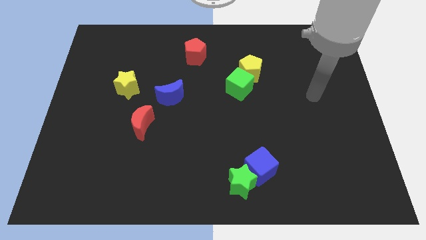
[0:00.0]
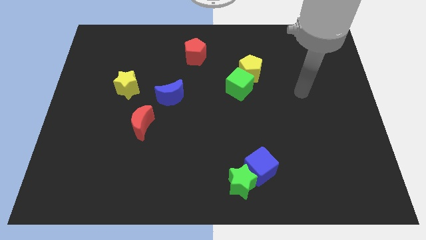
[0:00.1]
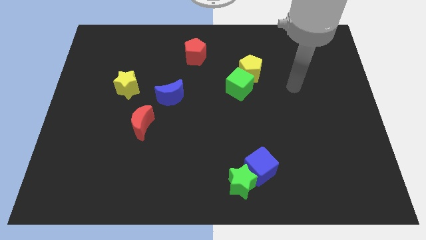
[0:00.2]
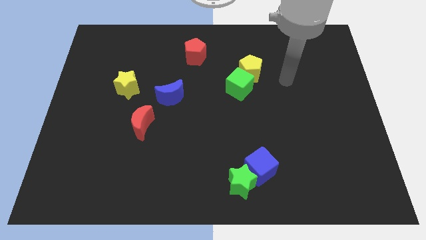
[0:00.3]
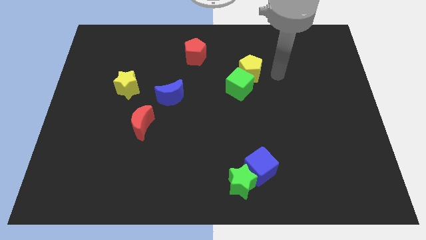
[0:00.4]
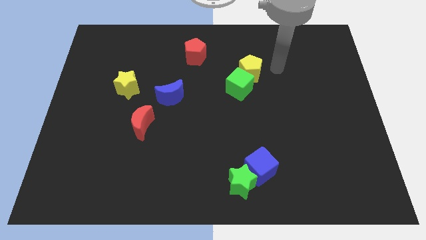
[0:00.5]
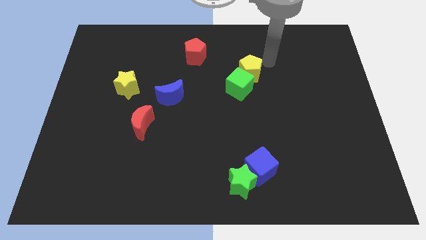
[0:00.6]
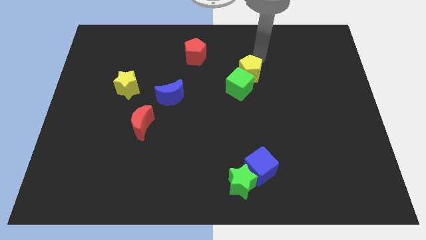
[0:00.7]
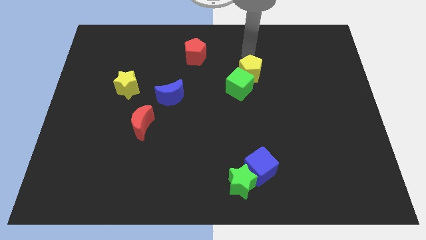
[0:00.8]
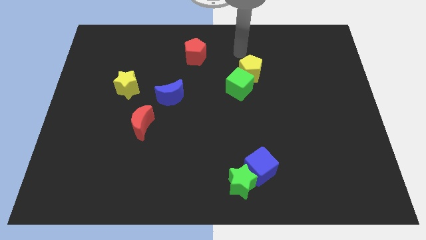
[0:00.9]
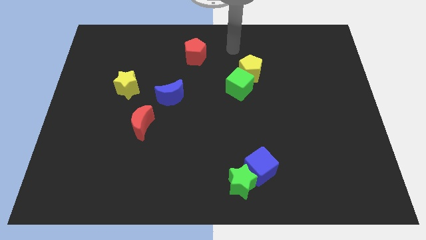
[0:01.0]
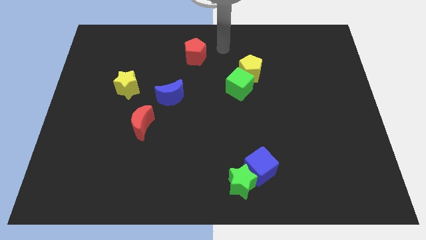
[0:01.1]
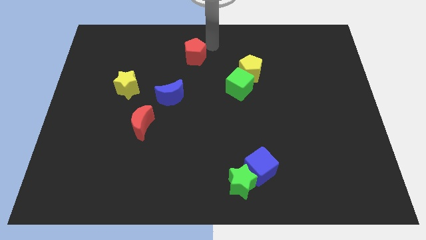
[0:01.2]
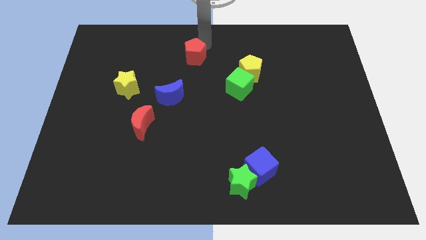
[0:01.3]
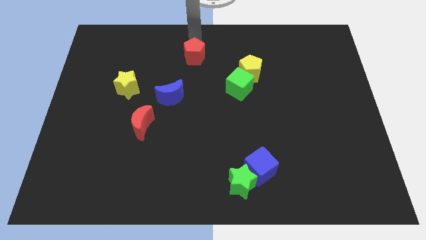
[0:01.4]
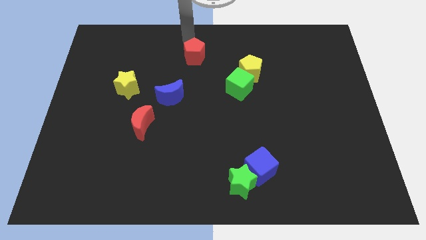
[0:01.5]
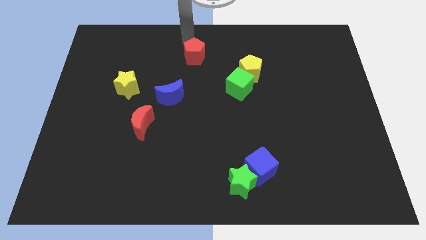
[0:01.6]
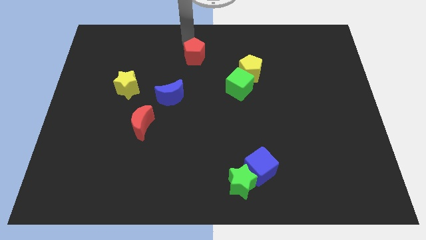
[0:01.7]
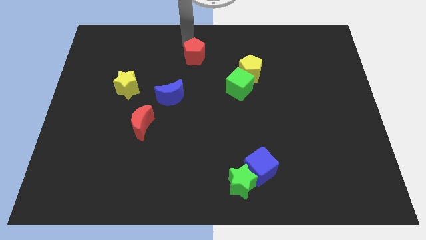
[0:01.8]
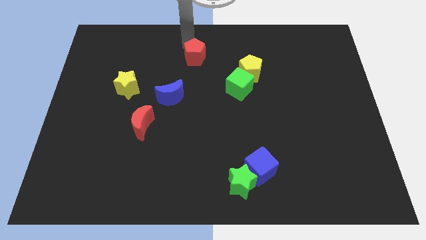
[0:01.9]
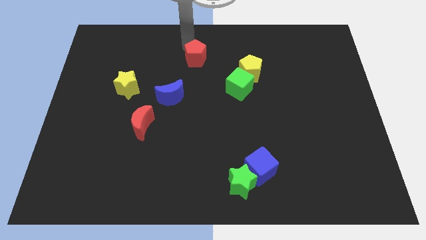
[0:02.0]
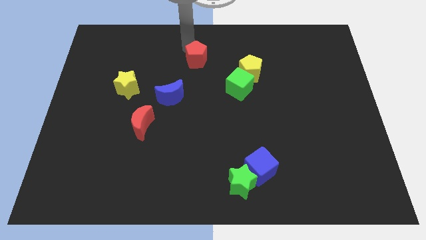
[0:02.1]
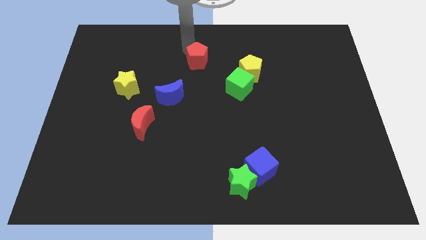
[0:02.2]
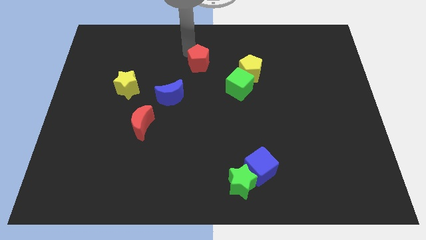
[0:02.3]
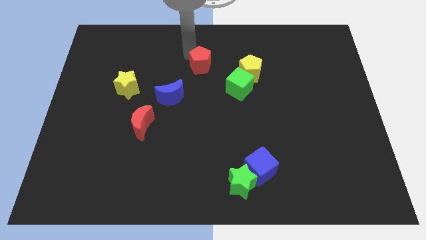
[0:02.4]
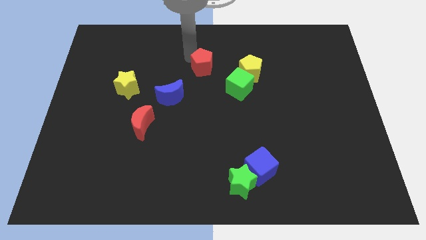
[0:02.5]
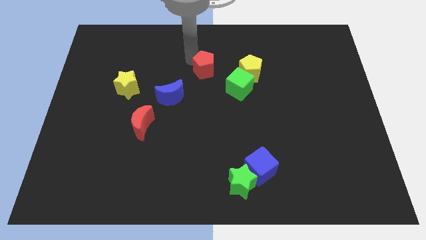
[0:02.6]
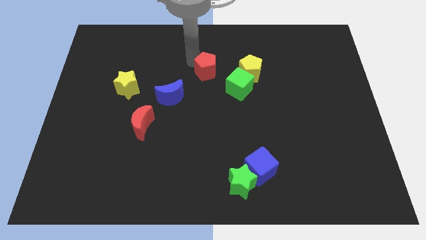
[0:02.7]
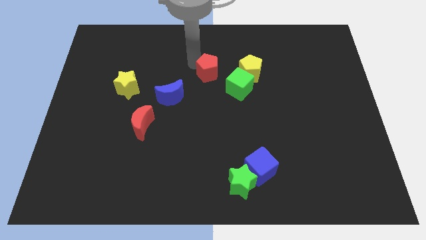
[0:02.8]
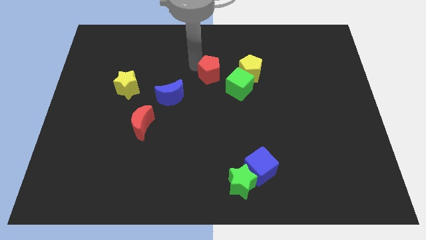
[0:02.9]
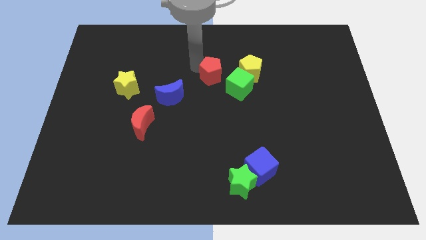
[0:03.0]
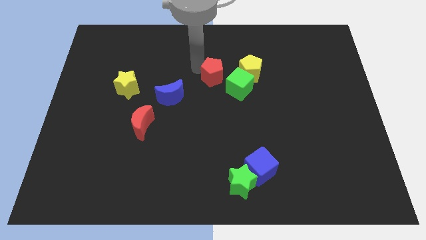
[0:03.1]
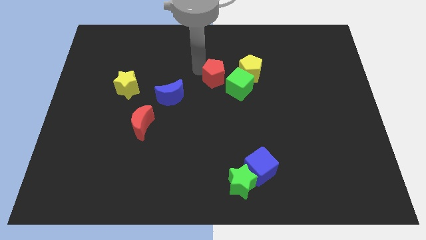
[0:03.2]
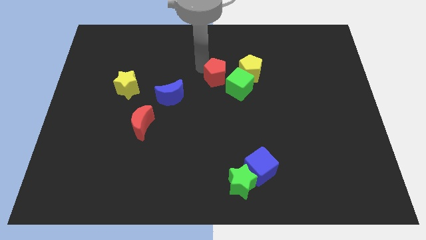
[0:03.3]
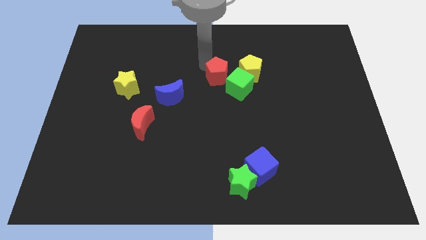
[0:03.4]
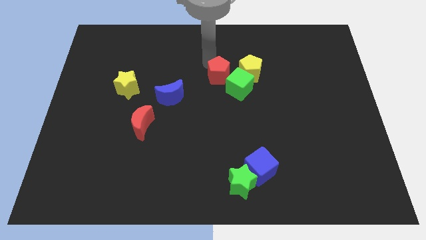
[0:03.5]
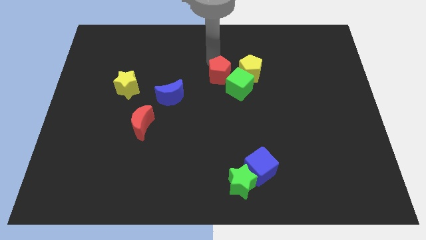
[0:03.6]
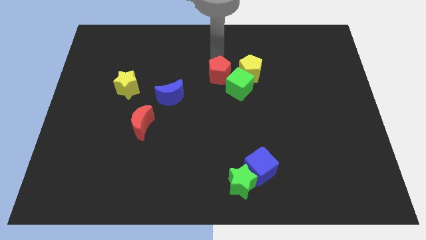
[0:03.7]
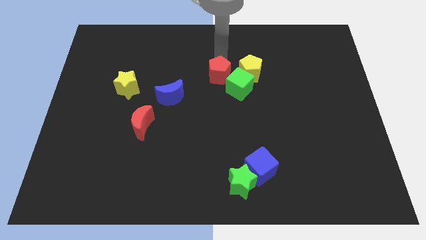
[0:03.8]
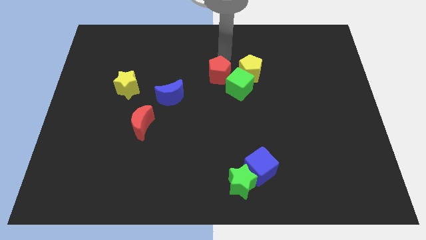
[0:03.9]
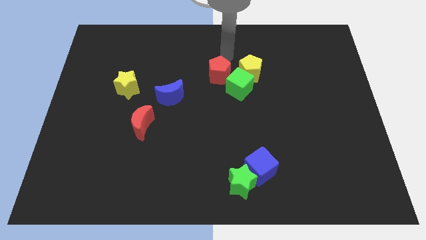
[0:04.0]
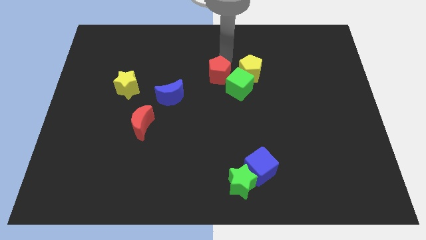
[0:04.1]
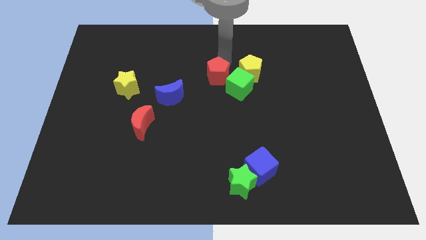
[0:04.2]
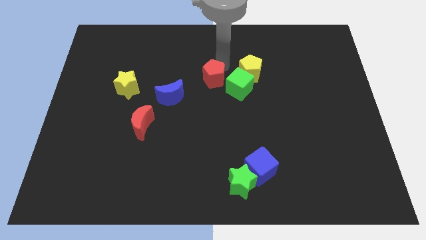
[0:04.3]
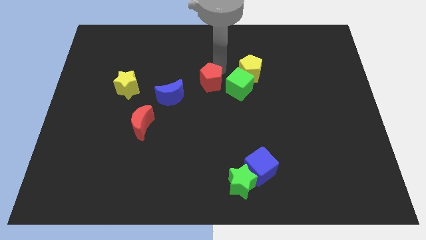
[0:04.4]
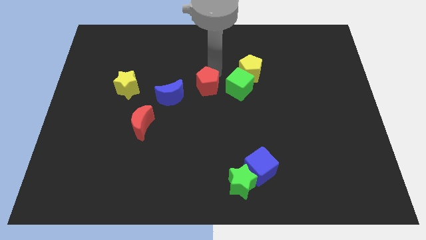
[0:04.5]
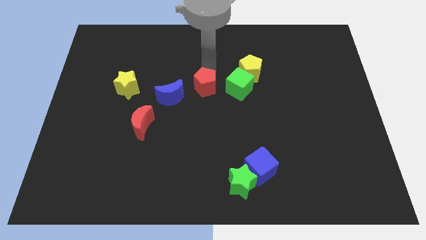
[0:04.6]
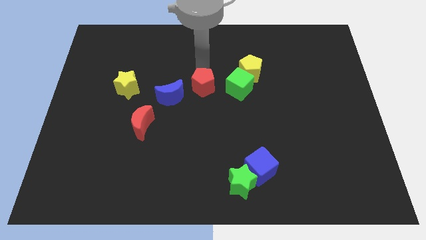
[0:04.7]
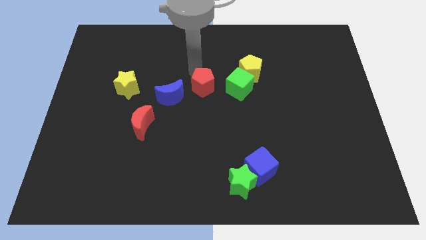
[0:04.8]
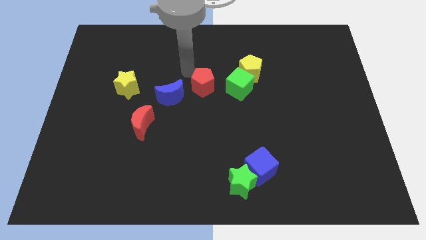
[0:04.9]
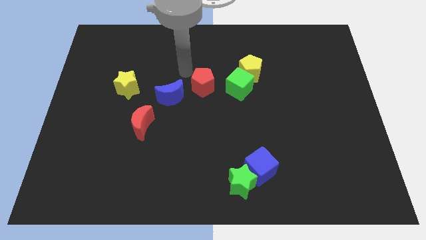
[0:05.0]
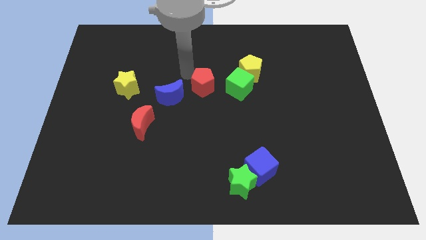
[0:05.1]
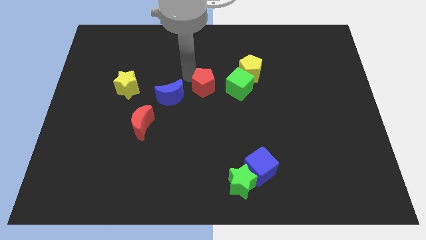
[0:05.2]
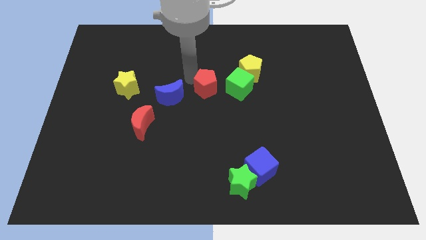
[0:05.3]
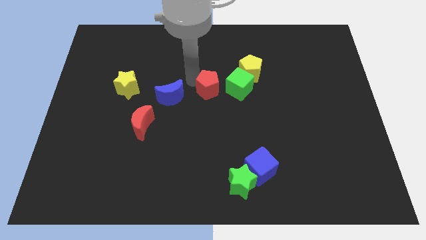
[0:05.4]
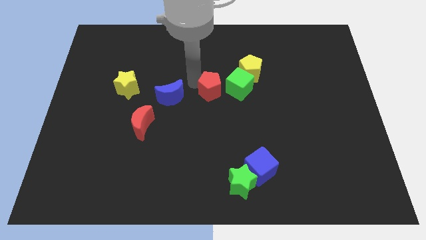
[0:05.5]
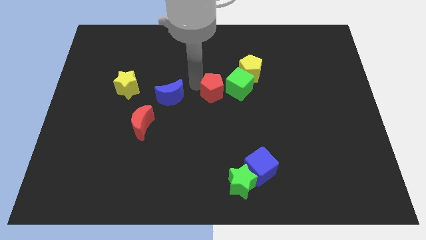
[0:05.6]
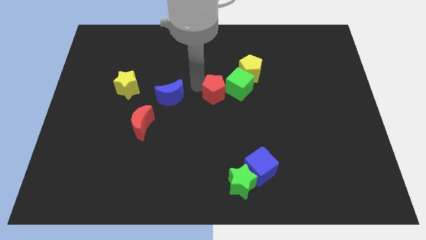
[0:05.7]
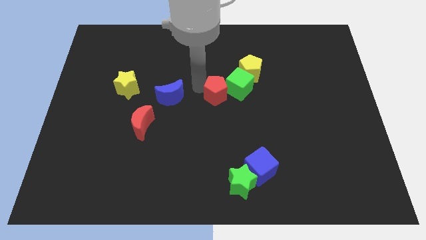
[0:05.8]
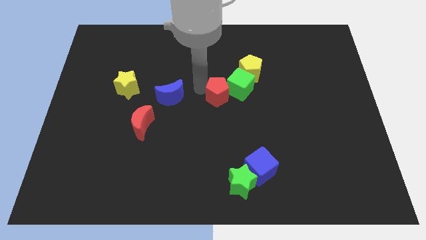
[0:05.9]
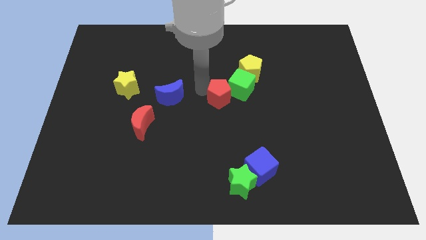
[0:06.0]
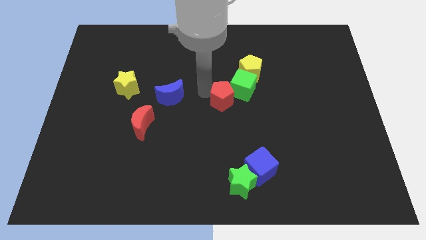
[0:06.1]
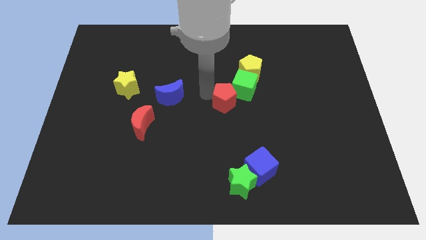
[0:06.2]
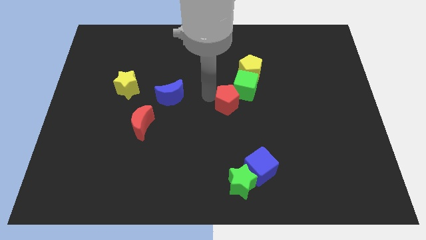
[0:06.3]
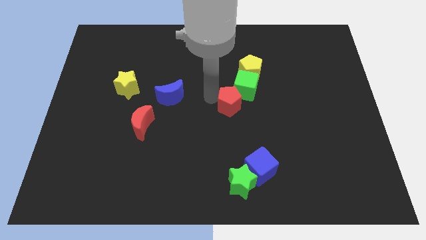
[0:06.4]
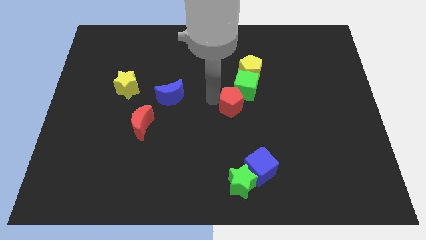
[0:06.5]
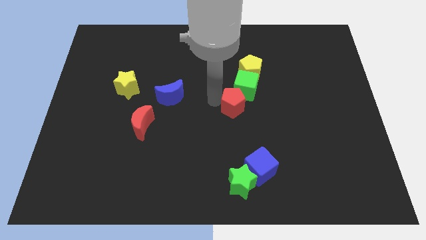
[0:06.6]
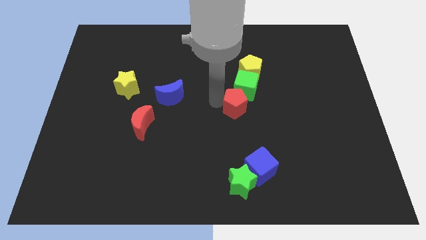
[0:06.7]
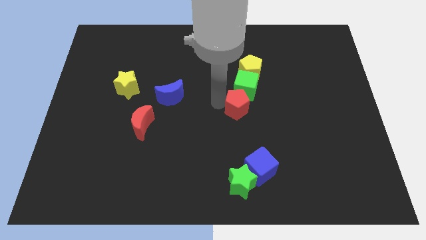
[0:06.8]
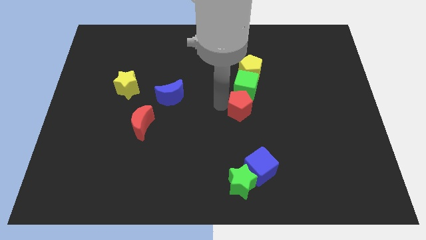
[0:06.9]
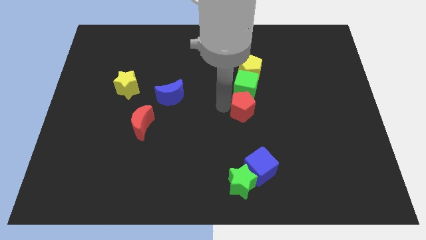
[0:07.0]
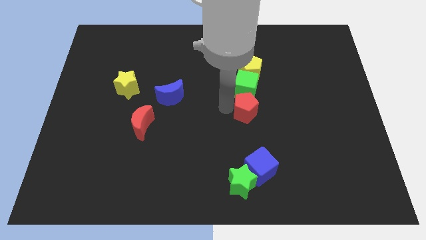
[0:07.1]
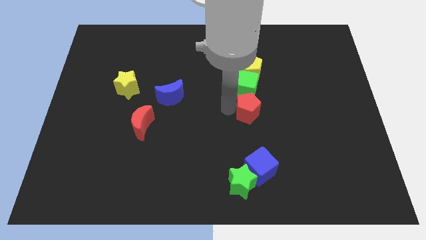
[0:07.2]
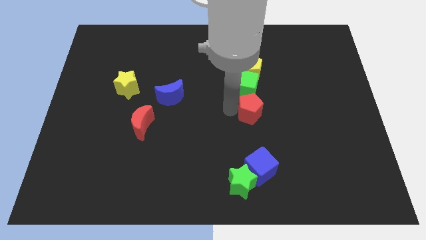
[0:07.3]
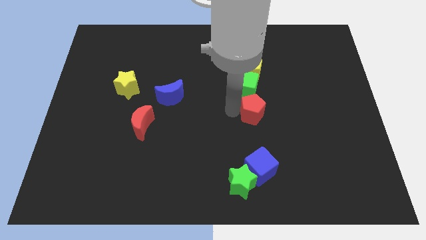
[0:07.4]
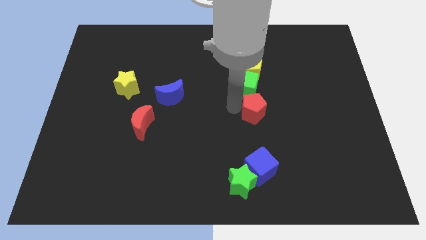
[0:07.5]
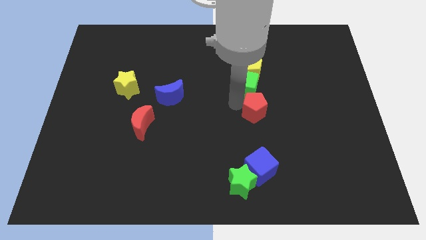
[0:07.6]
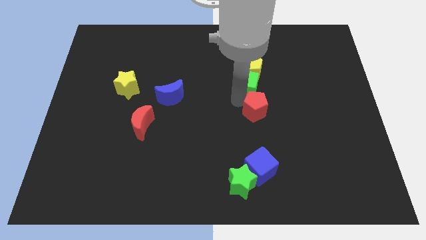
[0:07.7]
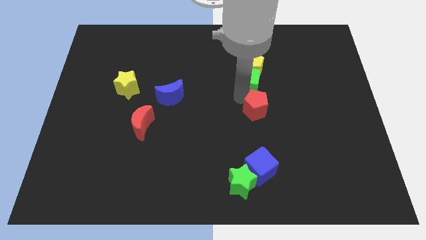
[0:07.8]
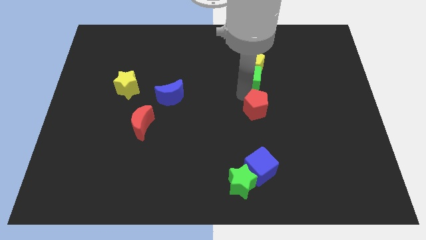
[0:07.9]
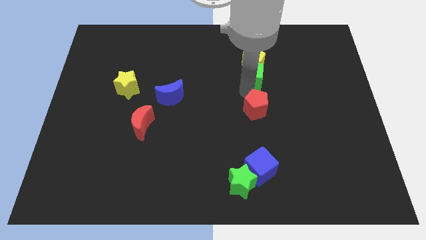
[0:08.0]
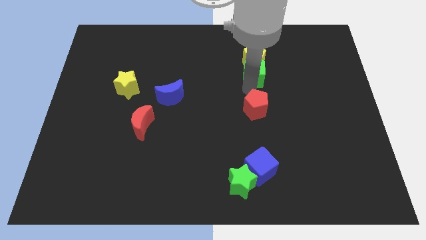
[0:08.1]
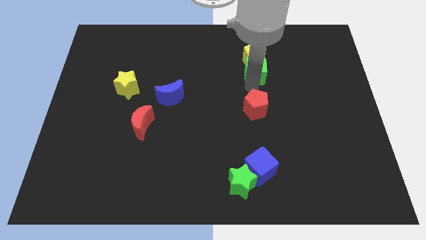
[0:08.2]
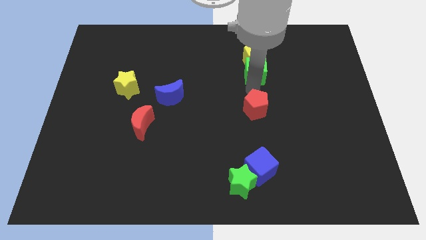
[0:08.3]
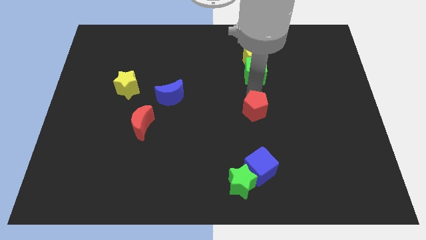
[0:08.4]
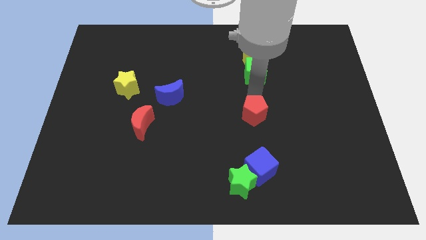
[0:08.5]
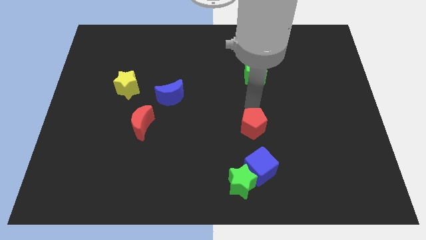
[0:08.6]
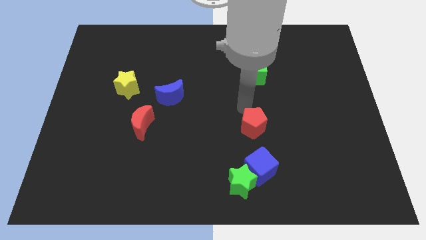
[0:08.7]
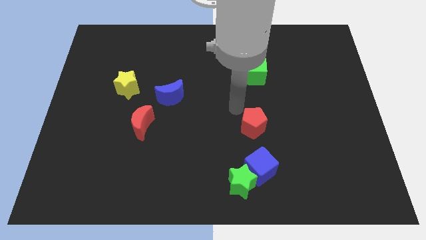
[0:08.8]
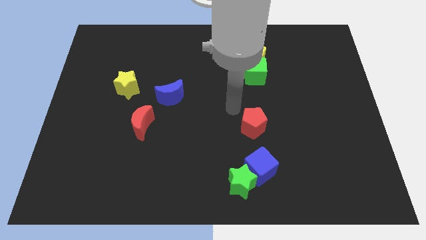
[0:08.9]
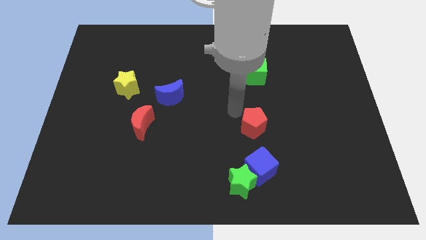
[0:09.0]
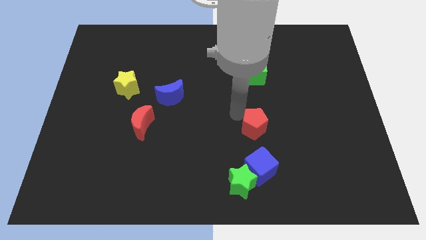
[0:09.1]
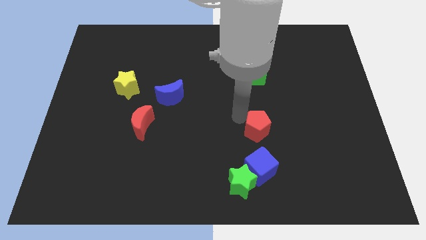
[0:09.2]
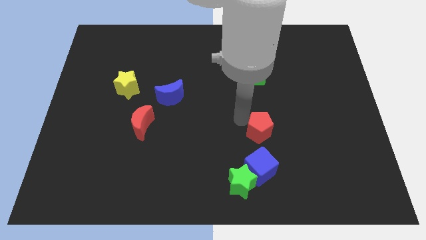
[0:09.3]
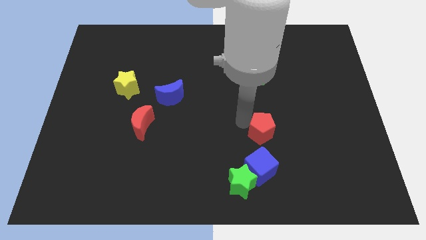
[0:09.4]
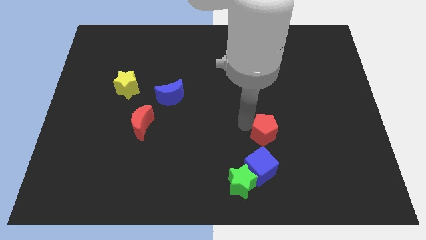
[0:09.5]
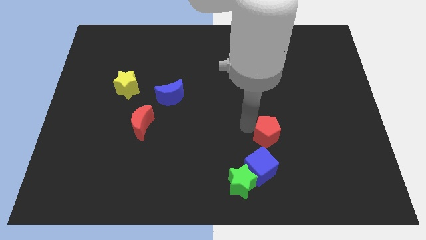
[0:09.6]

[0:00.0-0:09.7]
slide the red pentagon diagonally up and to the right of the blue cube
